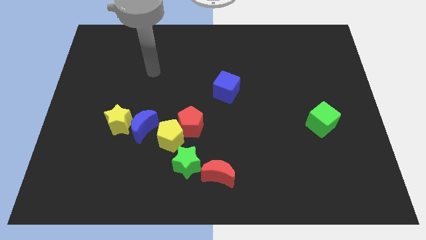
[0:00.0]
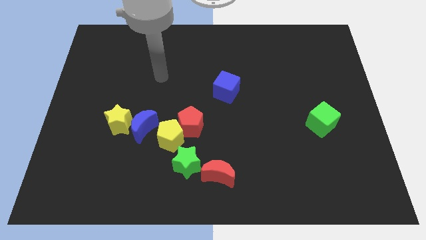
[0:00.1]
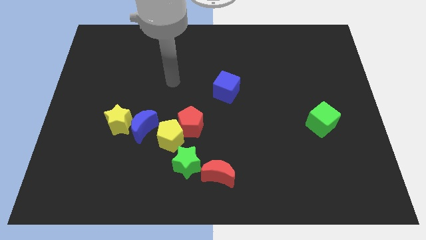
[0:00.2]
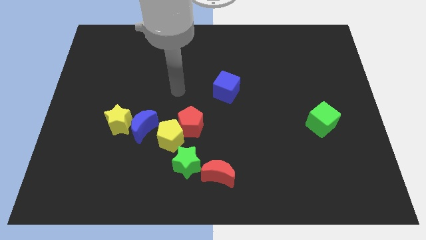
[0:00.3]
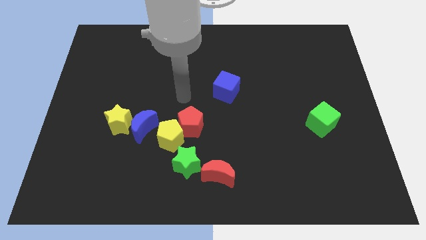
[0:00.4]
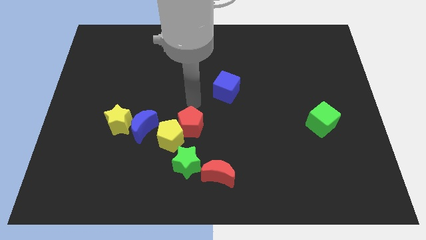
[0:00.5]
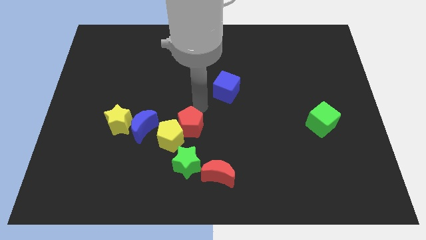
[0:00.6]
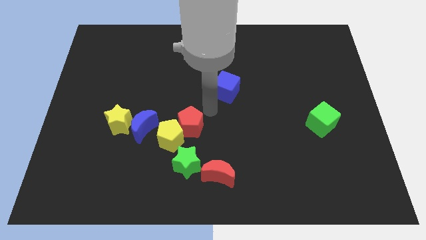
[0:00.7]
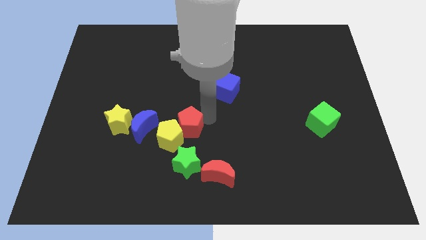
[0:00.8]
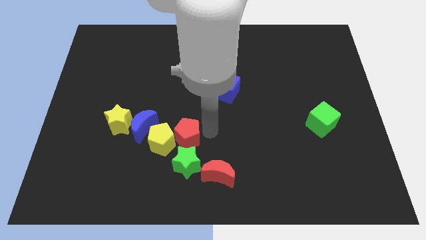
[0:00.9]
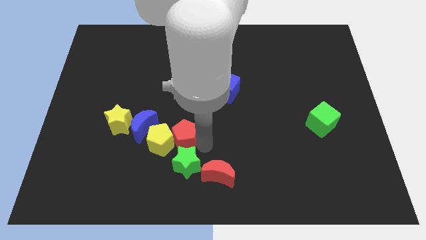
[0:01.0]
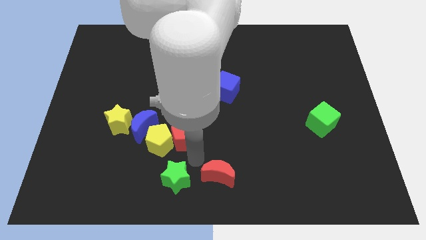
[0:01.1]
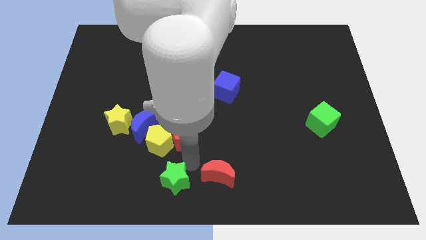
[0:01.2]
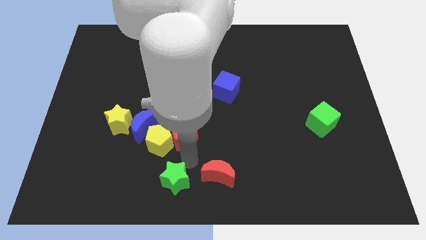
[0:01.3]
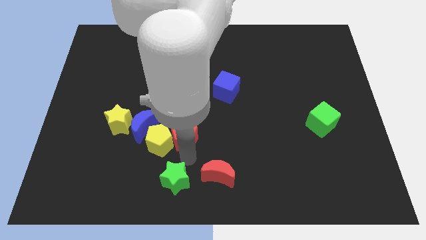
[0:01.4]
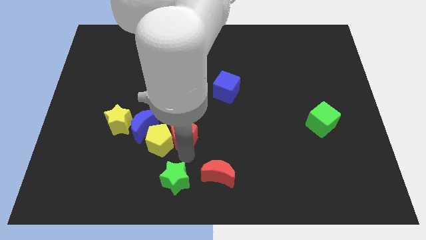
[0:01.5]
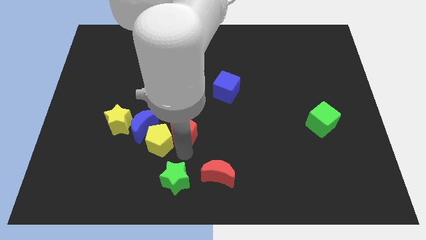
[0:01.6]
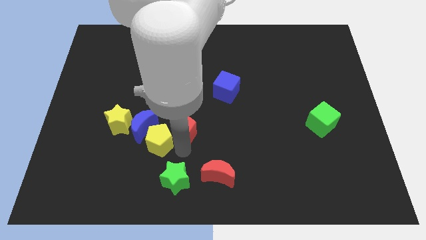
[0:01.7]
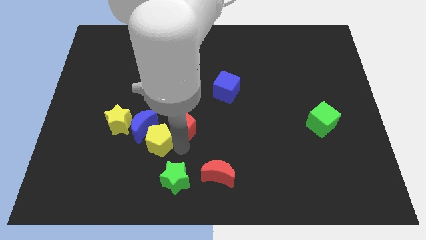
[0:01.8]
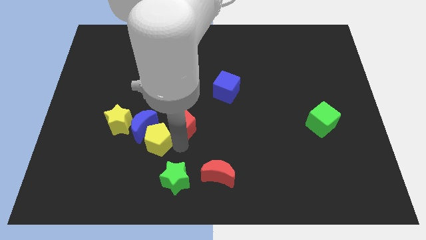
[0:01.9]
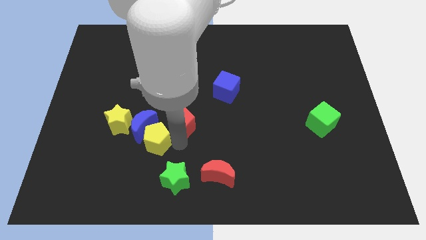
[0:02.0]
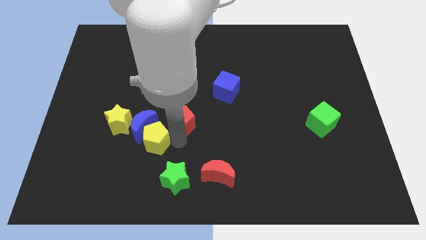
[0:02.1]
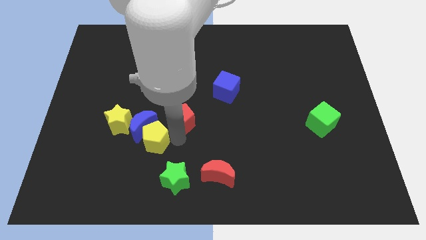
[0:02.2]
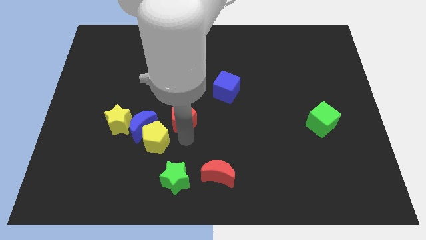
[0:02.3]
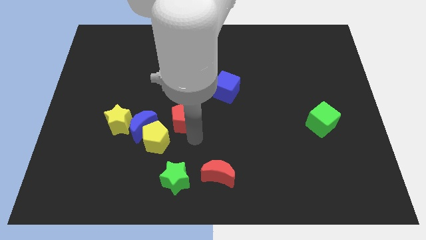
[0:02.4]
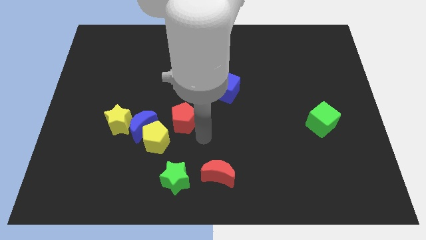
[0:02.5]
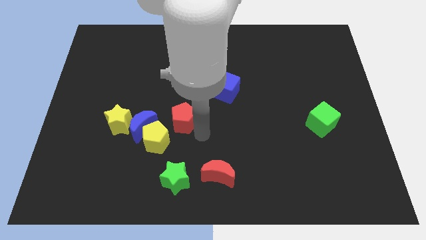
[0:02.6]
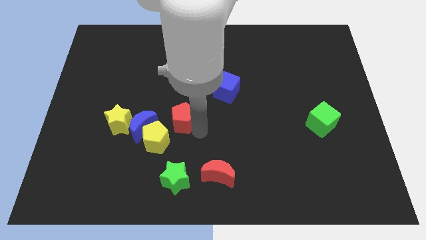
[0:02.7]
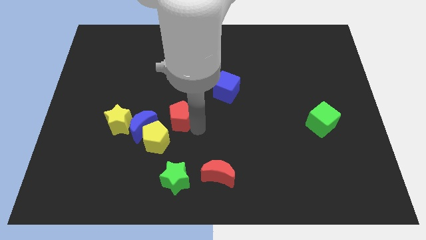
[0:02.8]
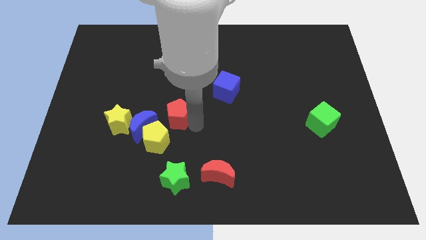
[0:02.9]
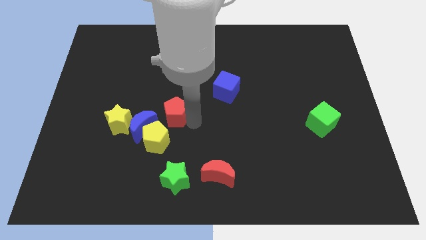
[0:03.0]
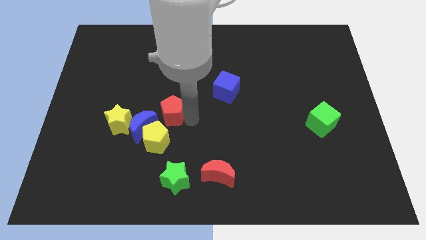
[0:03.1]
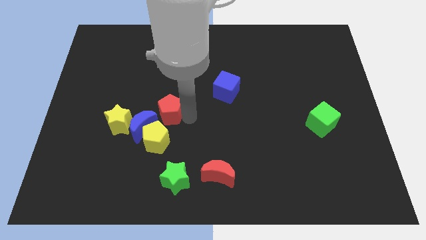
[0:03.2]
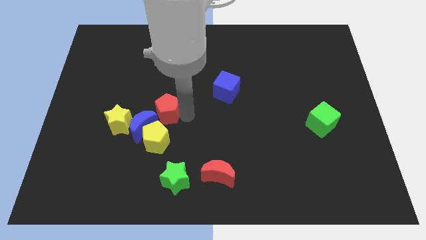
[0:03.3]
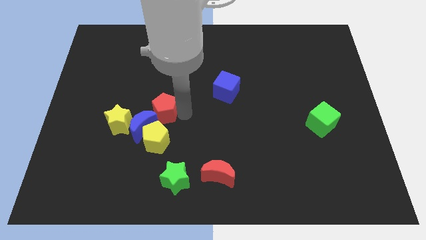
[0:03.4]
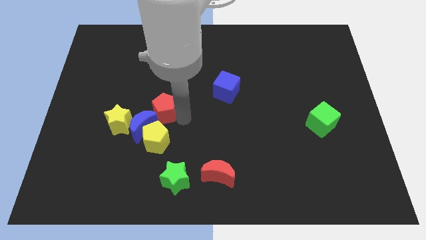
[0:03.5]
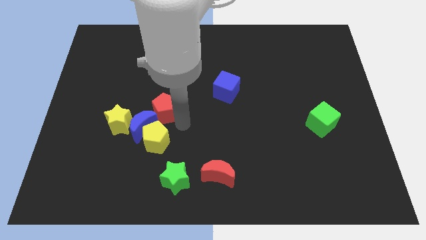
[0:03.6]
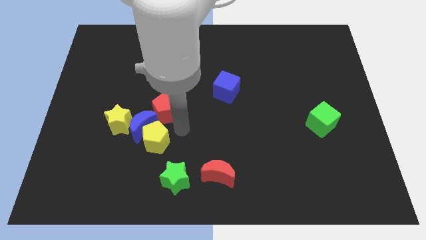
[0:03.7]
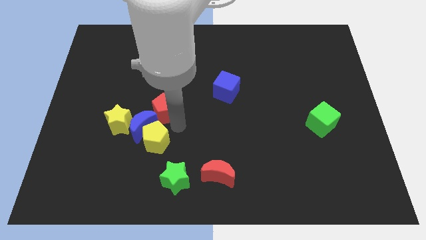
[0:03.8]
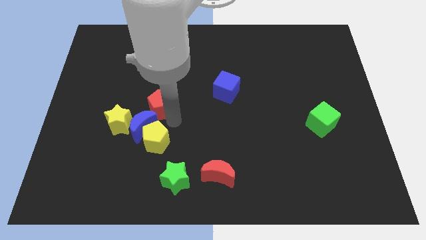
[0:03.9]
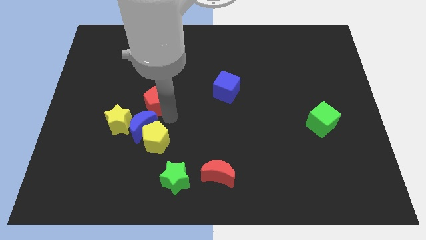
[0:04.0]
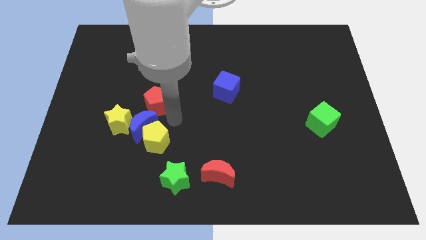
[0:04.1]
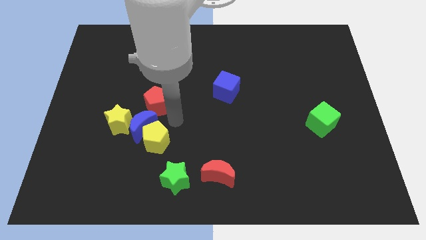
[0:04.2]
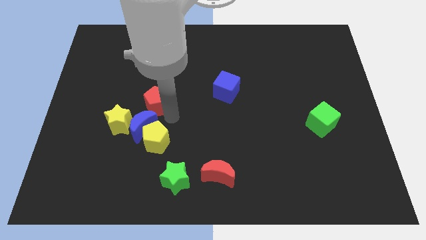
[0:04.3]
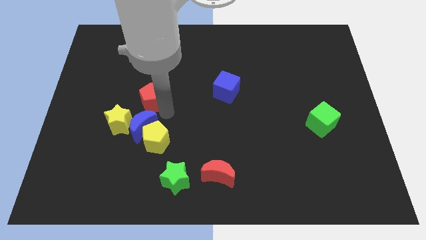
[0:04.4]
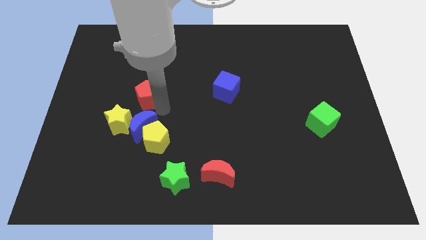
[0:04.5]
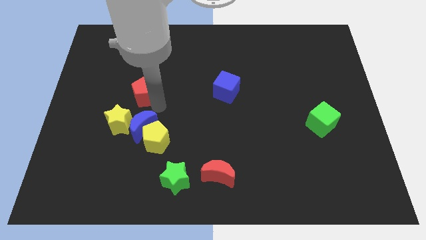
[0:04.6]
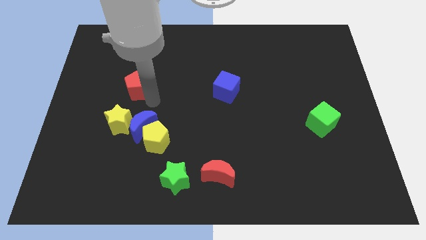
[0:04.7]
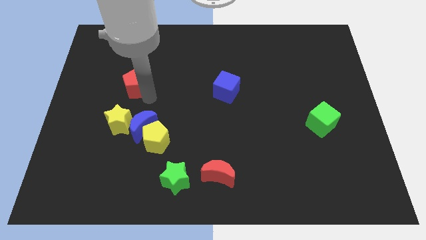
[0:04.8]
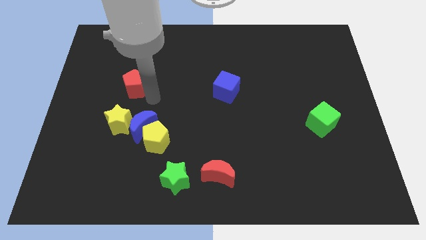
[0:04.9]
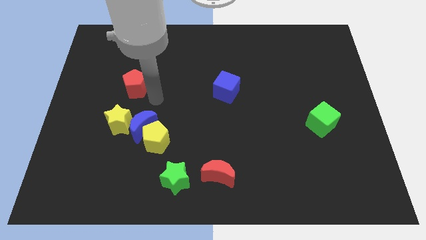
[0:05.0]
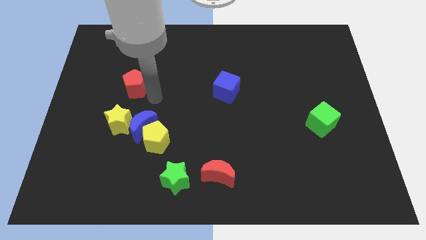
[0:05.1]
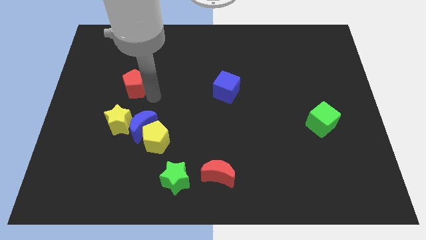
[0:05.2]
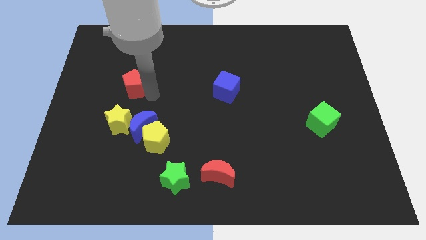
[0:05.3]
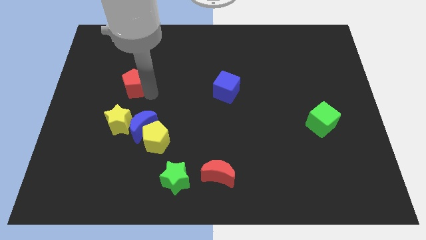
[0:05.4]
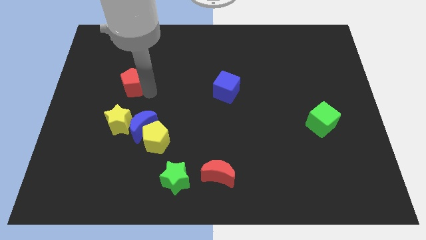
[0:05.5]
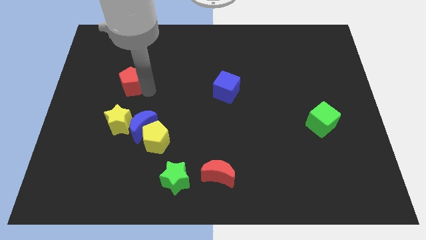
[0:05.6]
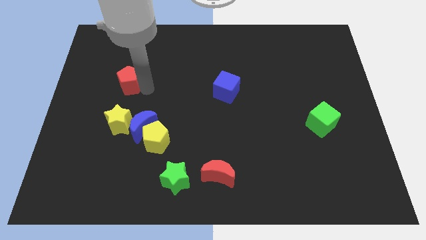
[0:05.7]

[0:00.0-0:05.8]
push the red pentagon upwards and to the left

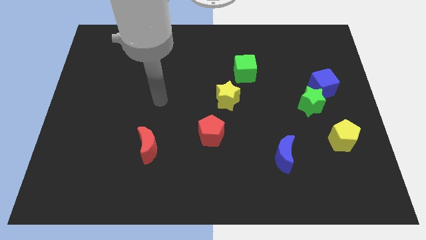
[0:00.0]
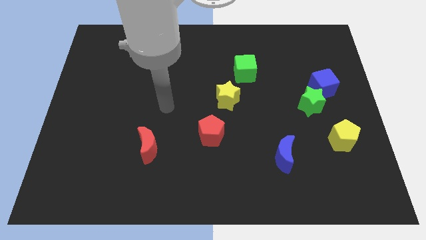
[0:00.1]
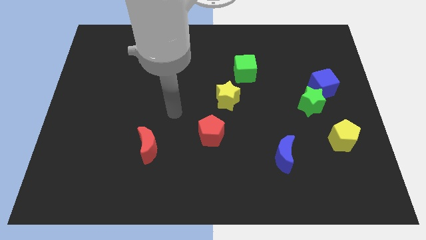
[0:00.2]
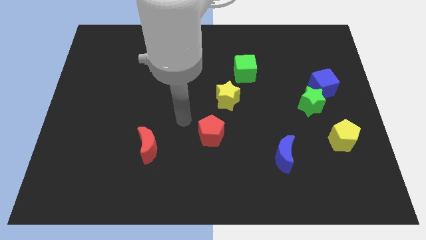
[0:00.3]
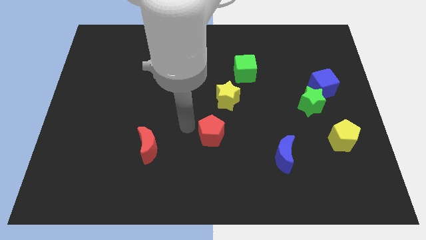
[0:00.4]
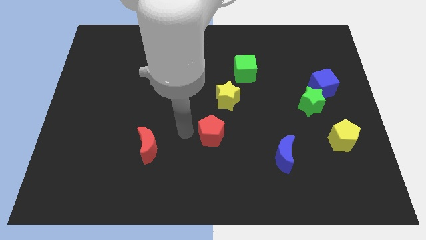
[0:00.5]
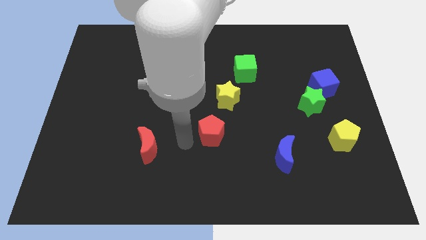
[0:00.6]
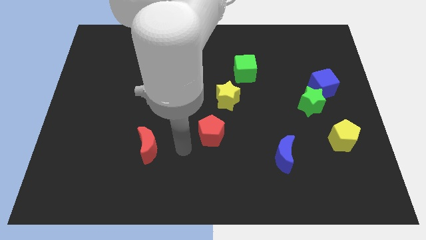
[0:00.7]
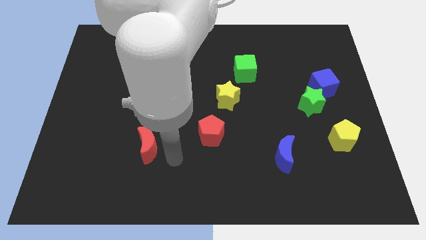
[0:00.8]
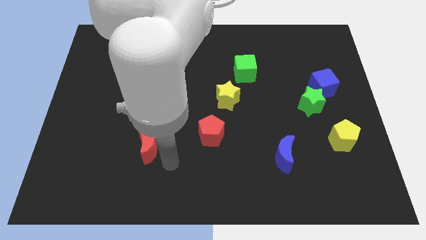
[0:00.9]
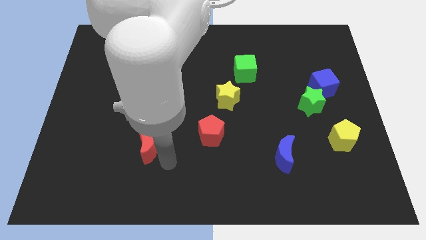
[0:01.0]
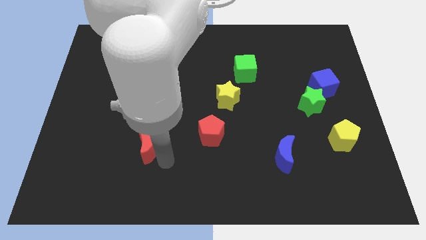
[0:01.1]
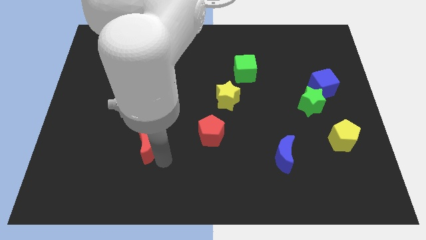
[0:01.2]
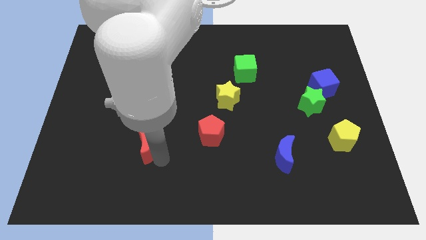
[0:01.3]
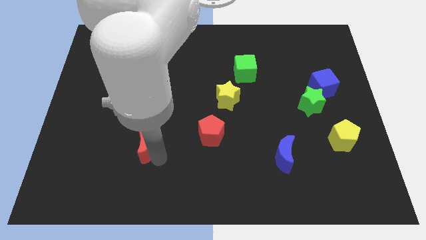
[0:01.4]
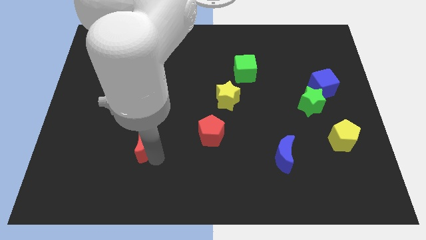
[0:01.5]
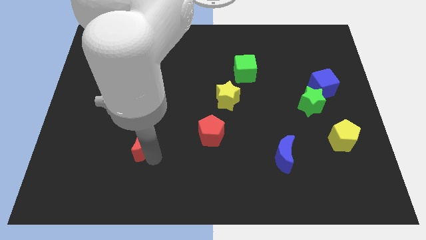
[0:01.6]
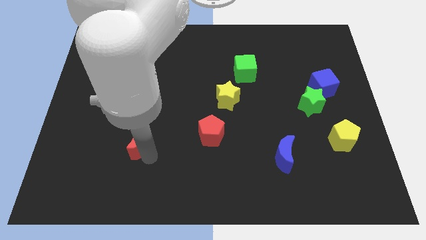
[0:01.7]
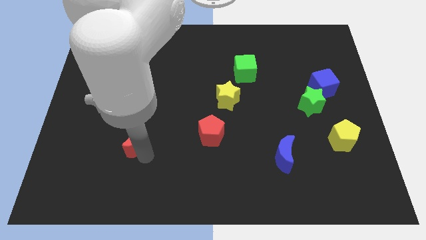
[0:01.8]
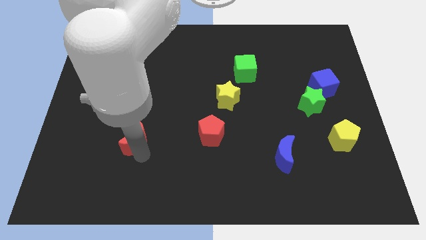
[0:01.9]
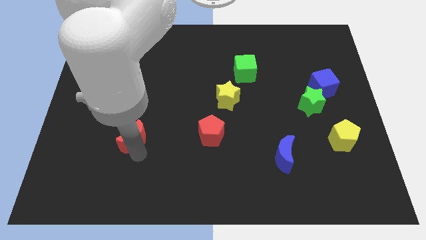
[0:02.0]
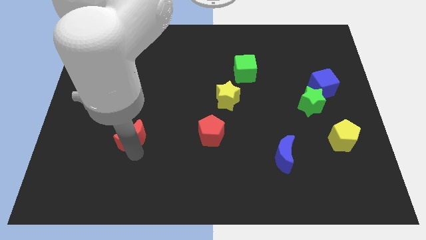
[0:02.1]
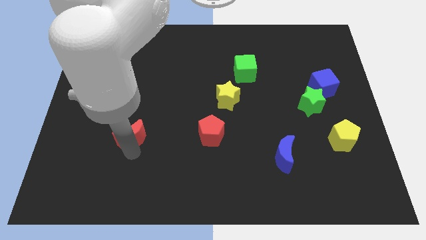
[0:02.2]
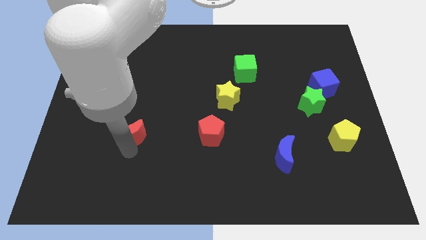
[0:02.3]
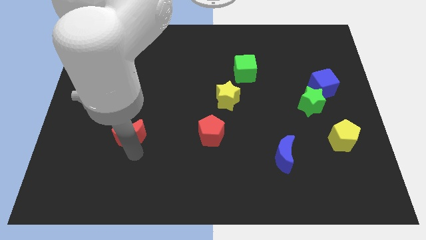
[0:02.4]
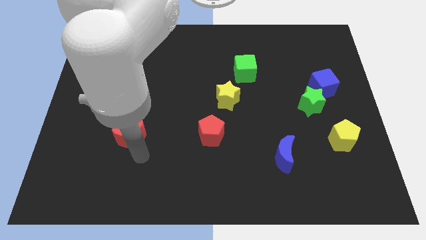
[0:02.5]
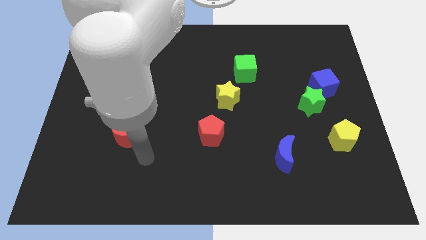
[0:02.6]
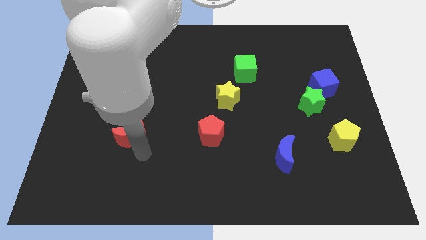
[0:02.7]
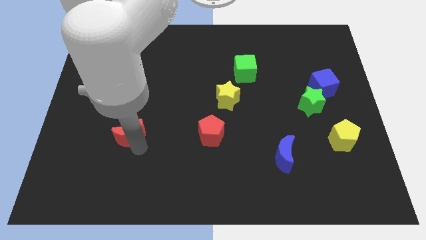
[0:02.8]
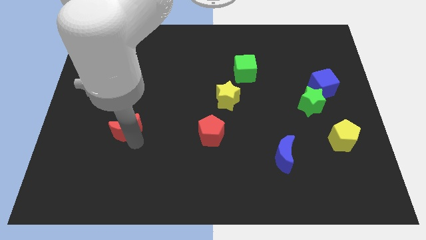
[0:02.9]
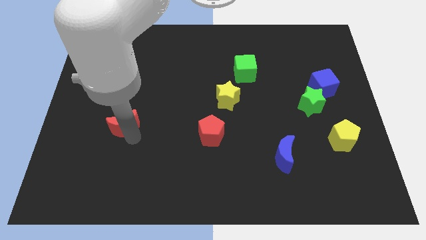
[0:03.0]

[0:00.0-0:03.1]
push the red moon up and left a little
